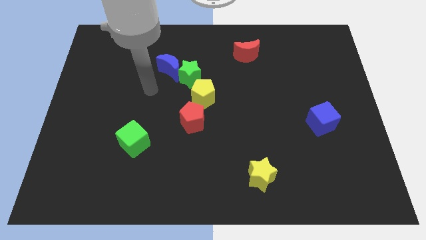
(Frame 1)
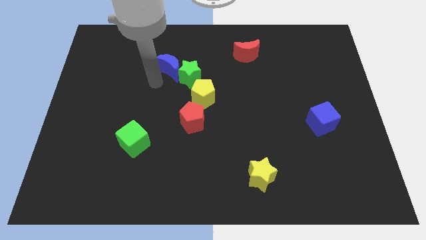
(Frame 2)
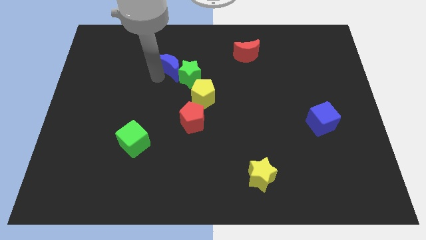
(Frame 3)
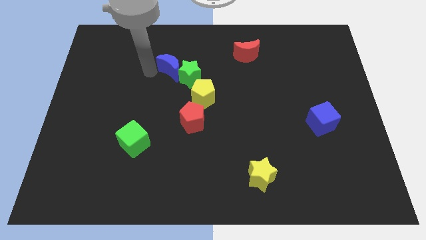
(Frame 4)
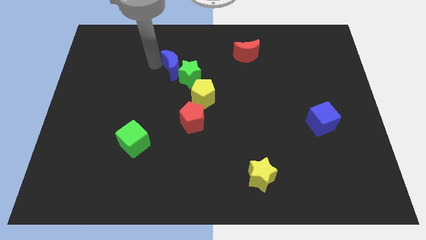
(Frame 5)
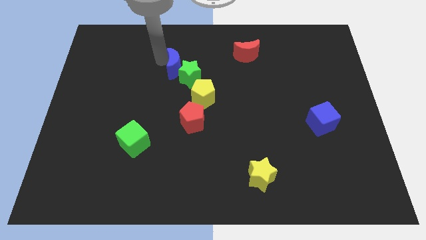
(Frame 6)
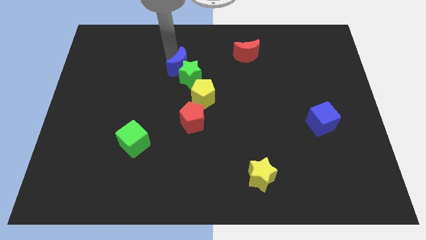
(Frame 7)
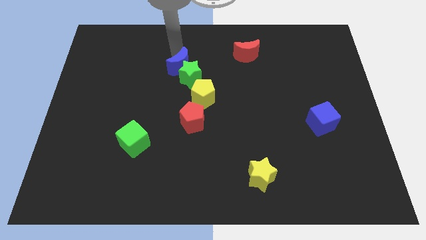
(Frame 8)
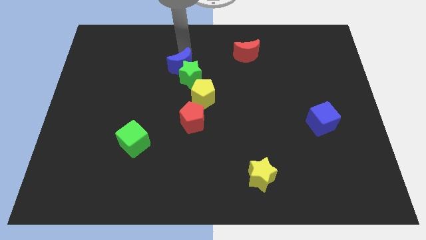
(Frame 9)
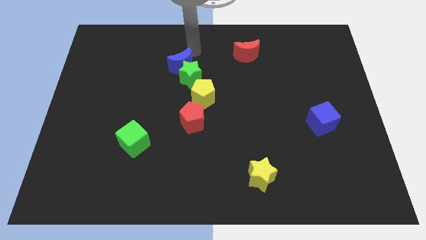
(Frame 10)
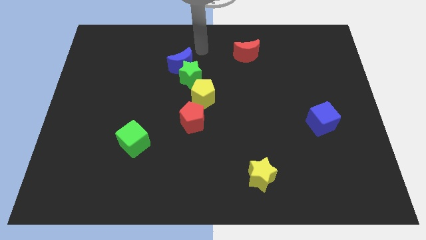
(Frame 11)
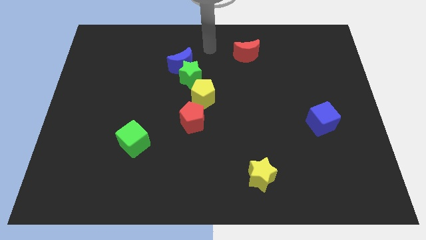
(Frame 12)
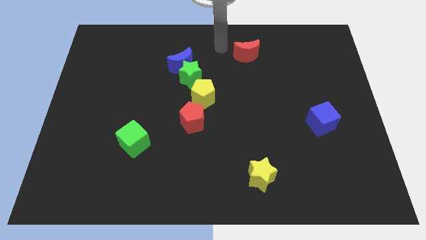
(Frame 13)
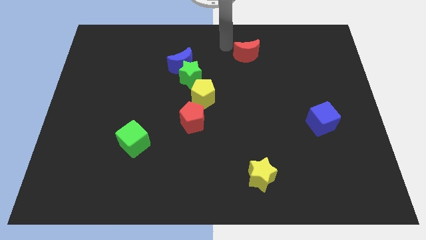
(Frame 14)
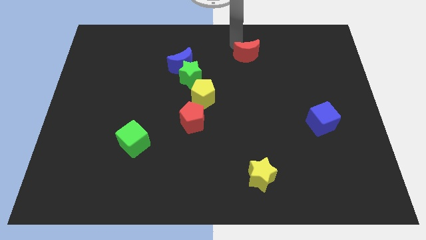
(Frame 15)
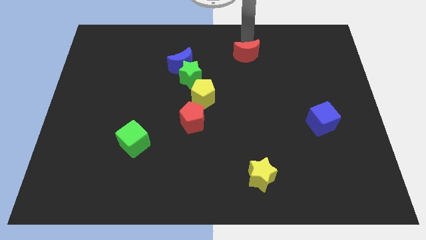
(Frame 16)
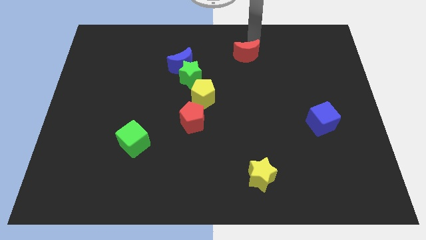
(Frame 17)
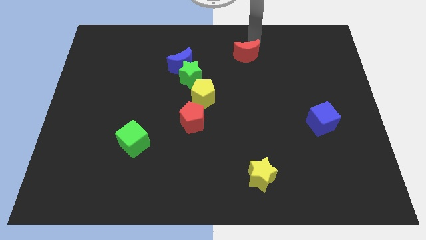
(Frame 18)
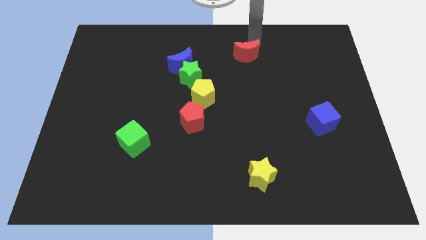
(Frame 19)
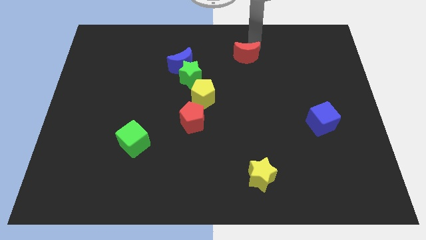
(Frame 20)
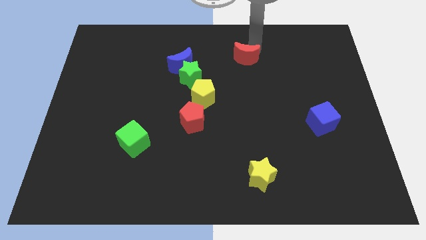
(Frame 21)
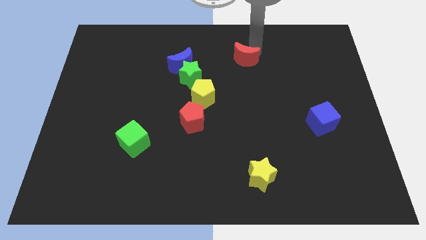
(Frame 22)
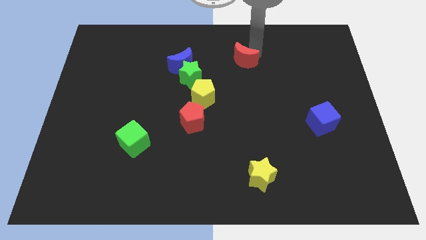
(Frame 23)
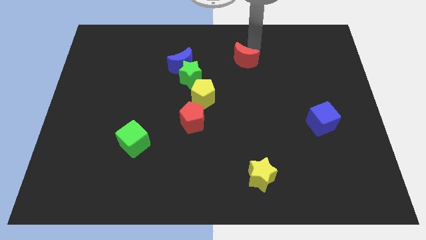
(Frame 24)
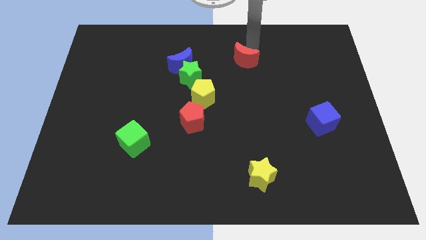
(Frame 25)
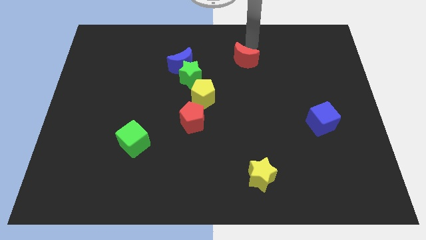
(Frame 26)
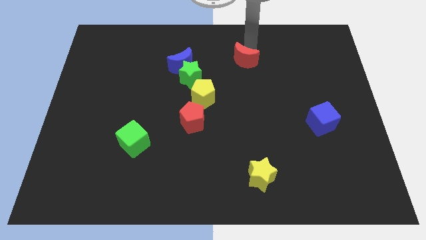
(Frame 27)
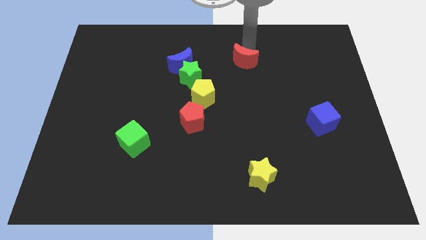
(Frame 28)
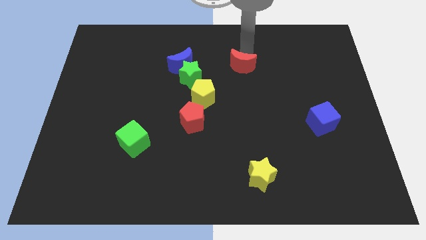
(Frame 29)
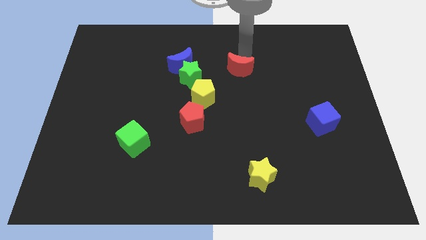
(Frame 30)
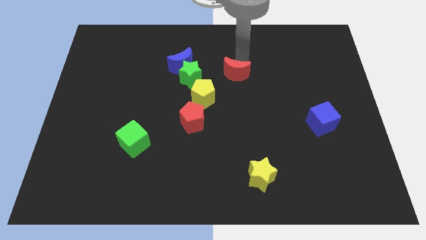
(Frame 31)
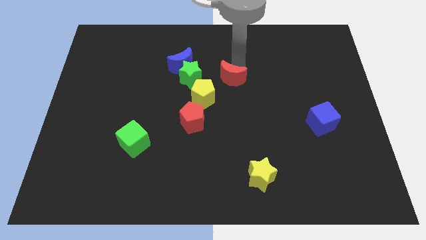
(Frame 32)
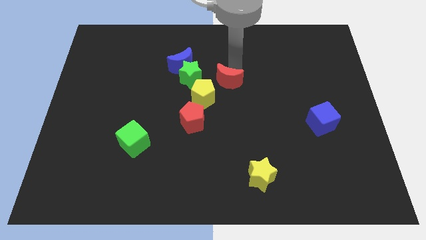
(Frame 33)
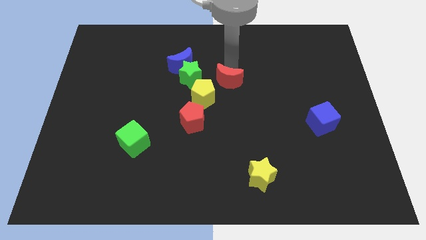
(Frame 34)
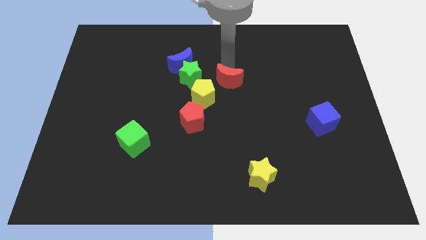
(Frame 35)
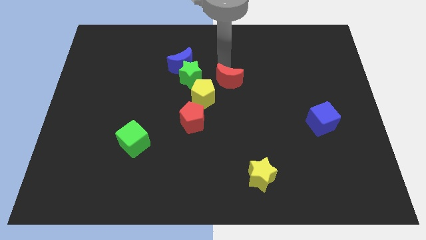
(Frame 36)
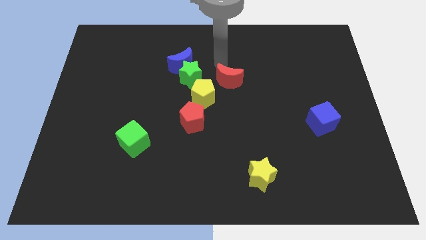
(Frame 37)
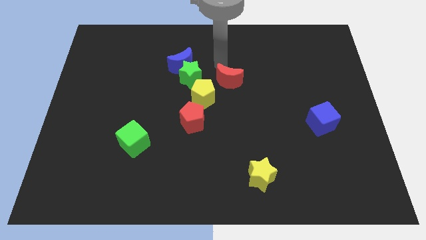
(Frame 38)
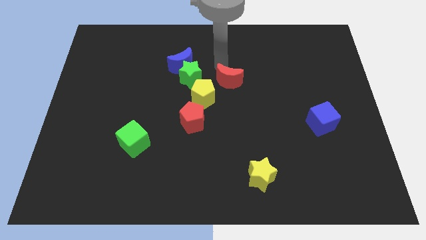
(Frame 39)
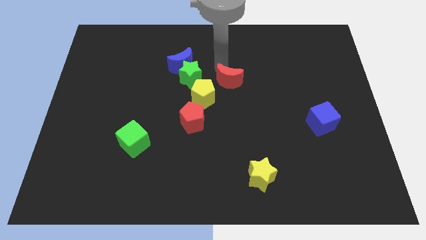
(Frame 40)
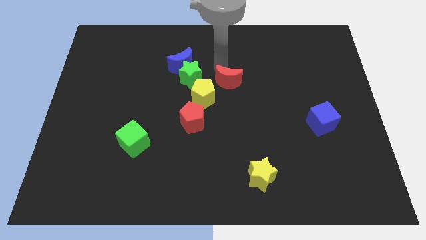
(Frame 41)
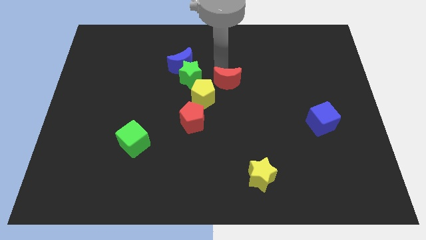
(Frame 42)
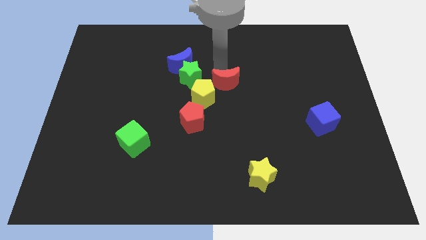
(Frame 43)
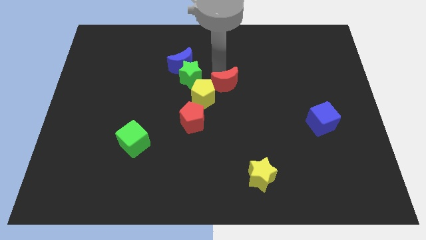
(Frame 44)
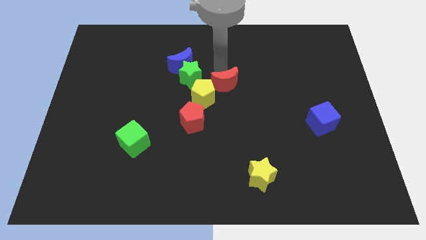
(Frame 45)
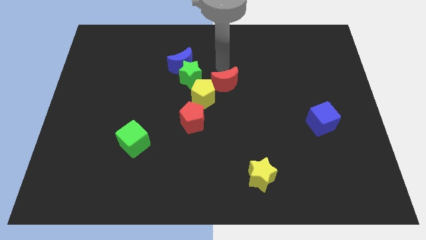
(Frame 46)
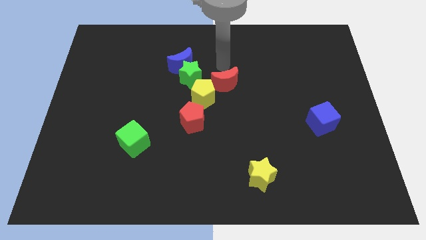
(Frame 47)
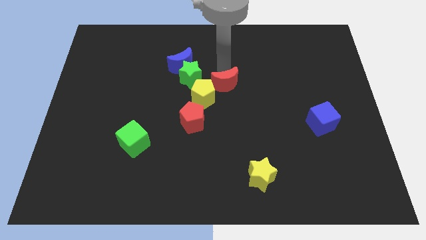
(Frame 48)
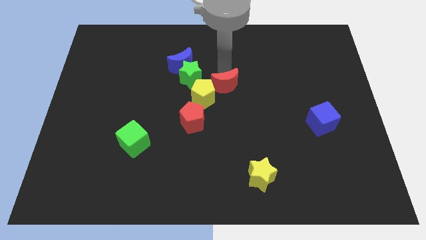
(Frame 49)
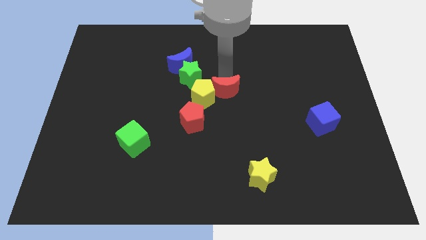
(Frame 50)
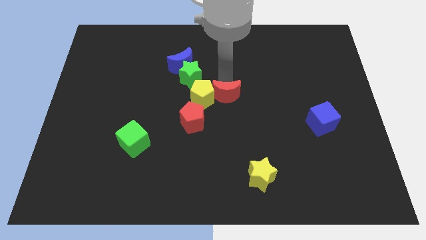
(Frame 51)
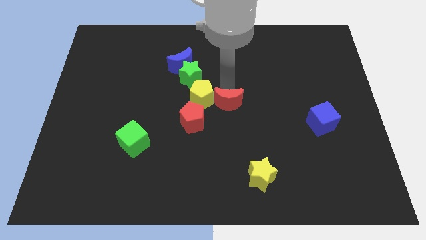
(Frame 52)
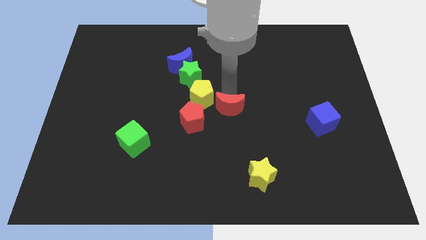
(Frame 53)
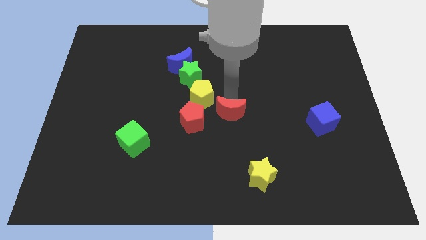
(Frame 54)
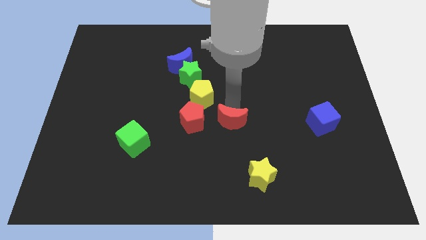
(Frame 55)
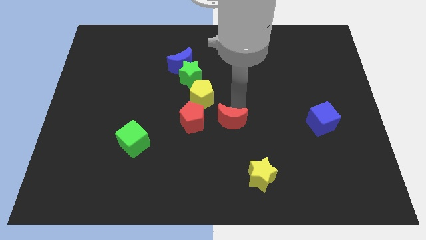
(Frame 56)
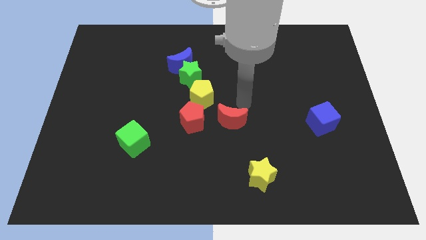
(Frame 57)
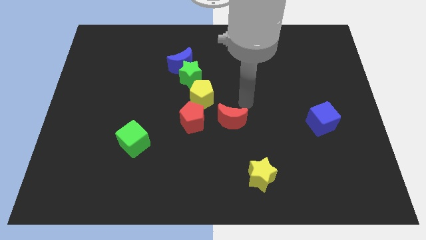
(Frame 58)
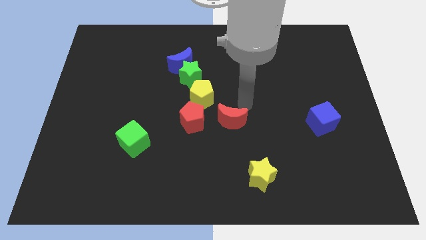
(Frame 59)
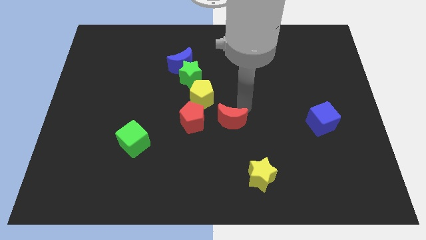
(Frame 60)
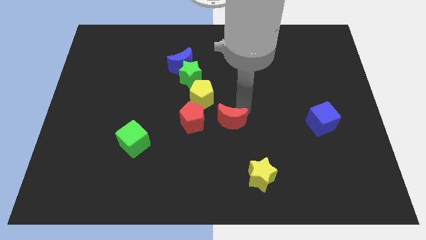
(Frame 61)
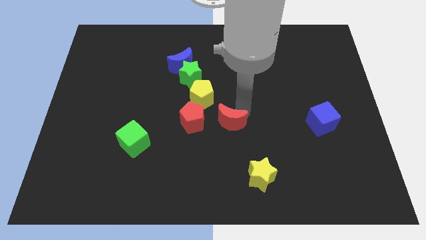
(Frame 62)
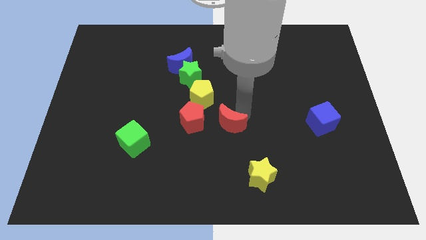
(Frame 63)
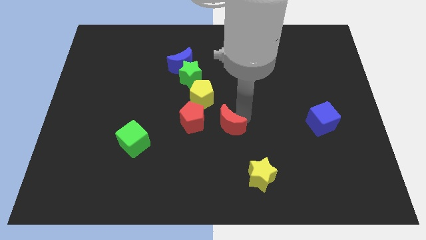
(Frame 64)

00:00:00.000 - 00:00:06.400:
push the red moon to the bottom right of the red pentagon
